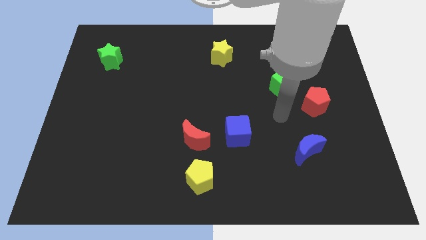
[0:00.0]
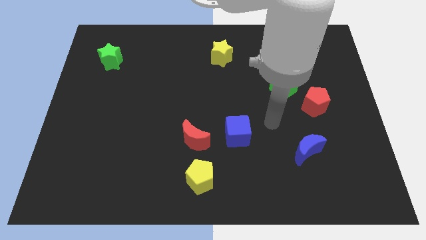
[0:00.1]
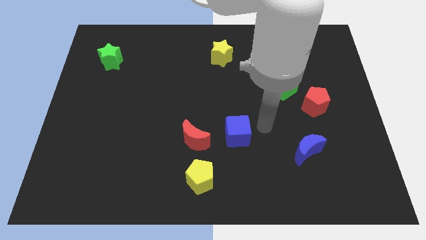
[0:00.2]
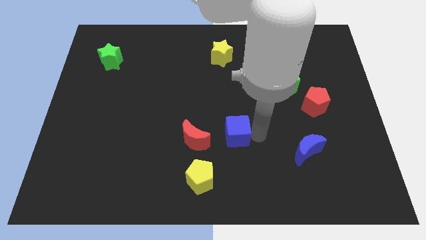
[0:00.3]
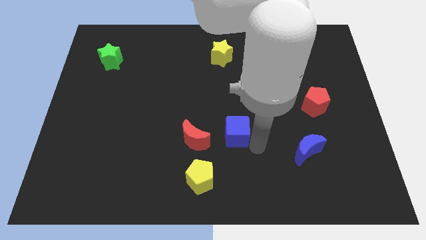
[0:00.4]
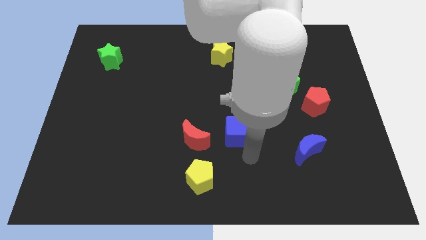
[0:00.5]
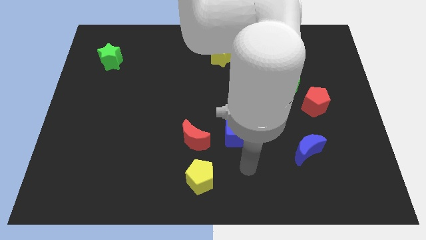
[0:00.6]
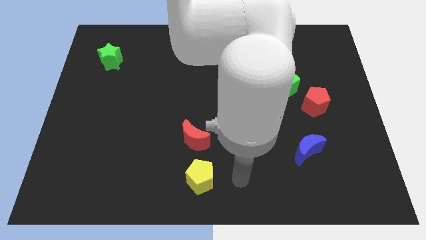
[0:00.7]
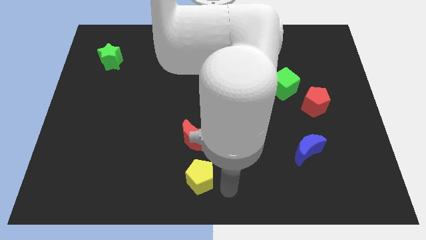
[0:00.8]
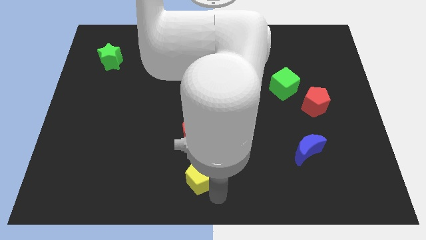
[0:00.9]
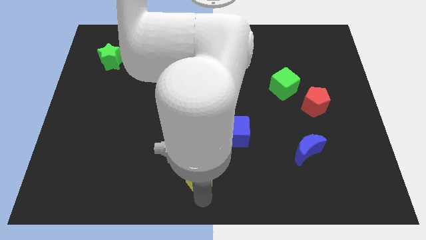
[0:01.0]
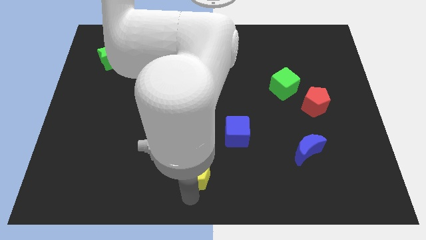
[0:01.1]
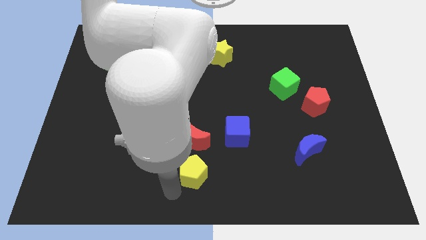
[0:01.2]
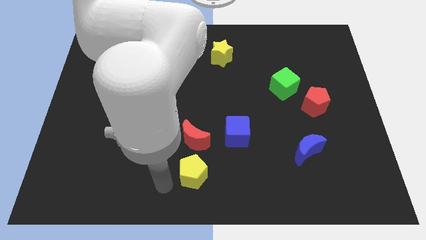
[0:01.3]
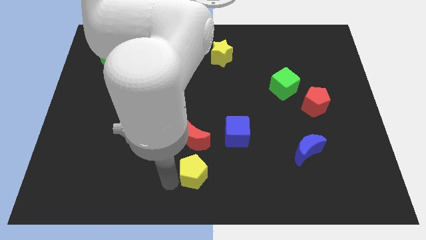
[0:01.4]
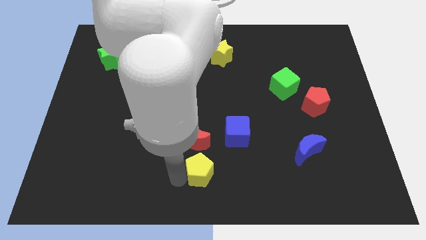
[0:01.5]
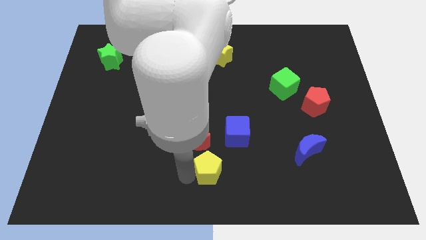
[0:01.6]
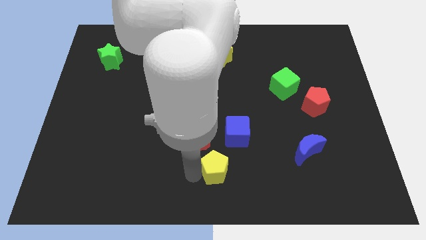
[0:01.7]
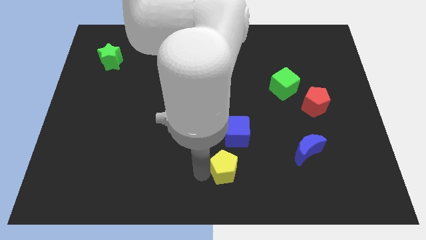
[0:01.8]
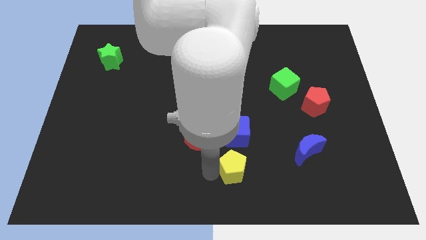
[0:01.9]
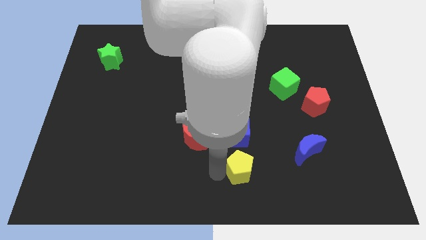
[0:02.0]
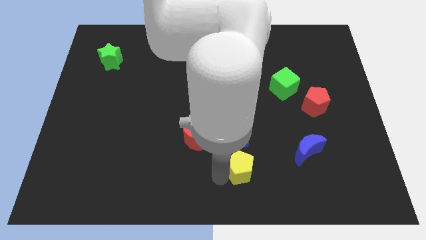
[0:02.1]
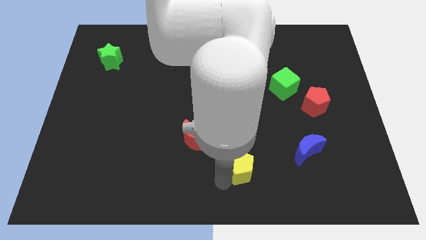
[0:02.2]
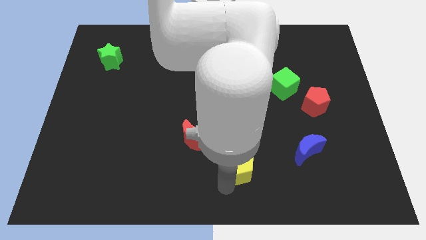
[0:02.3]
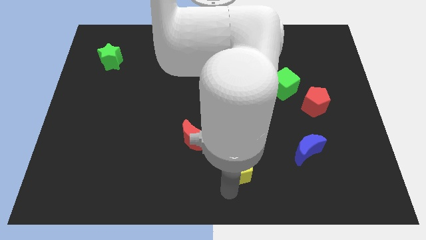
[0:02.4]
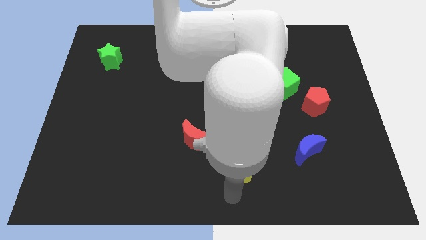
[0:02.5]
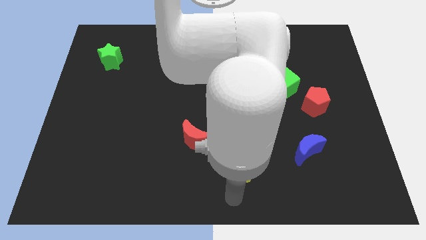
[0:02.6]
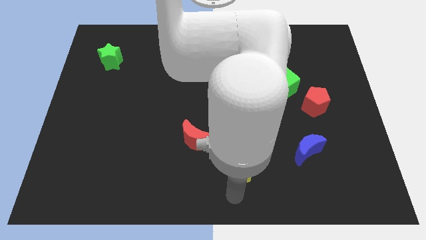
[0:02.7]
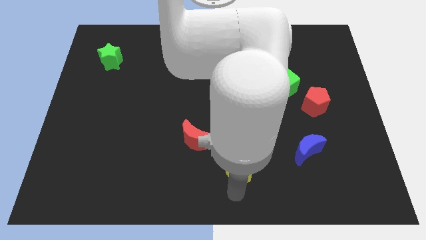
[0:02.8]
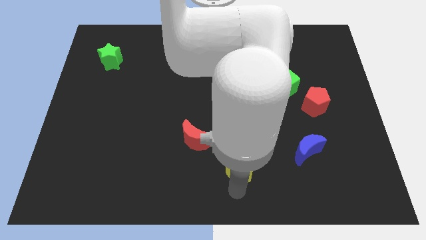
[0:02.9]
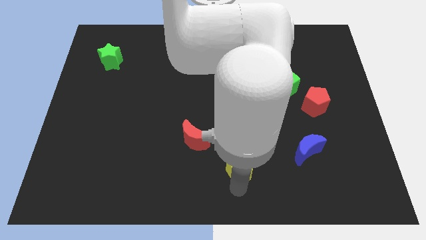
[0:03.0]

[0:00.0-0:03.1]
slide the yellow pentagon diagonally up and to the right a little

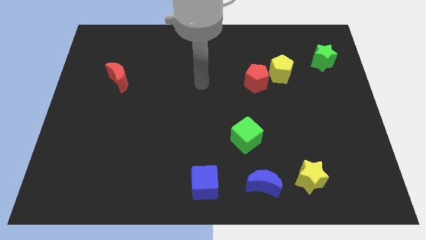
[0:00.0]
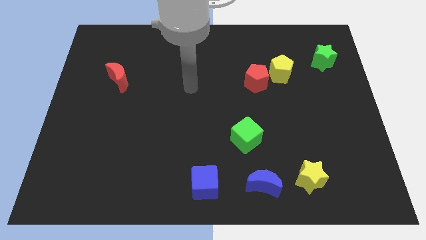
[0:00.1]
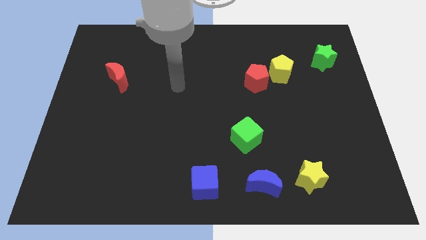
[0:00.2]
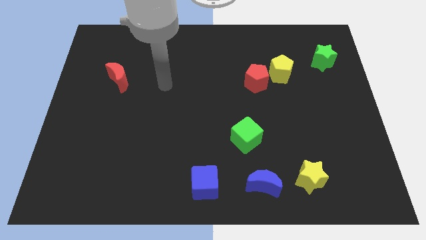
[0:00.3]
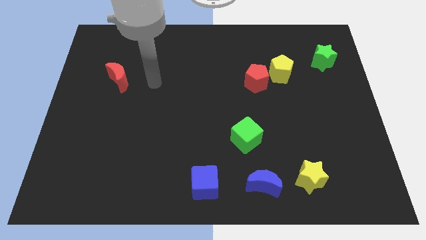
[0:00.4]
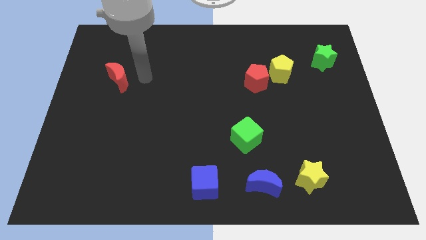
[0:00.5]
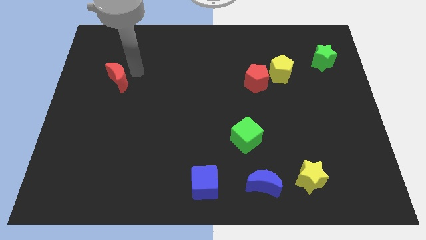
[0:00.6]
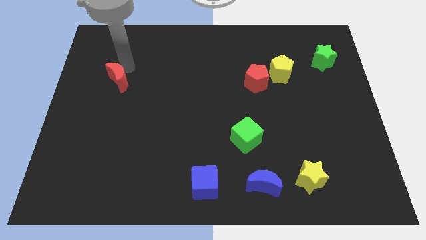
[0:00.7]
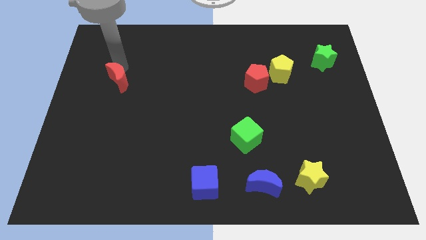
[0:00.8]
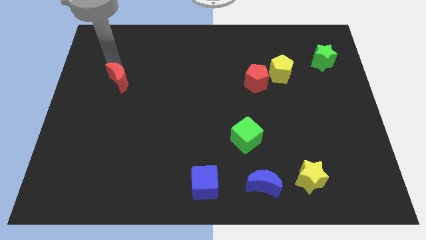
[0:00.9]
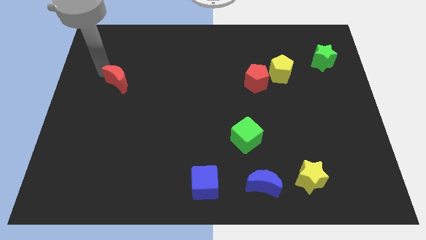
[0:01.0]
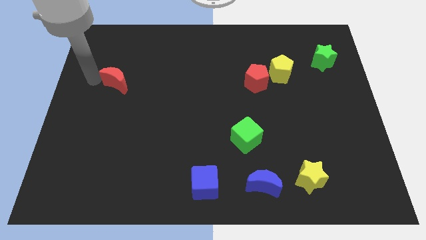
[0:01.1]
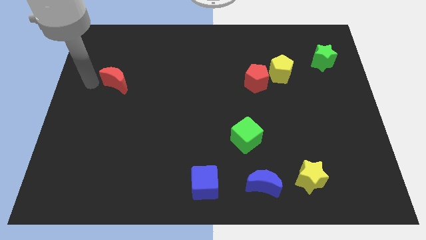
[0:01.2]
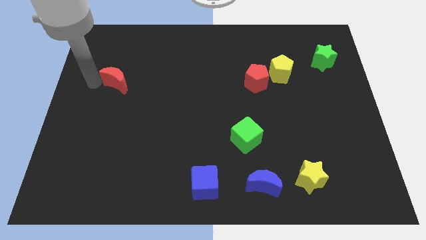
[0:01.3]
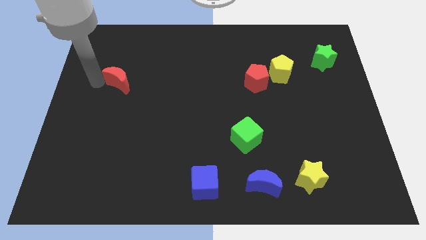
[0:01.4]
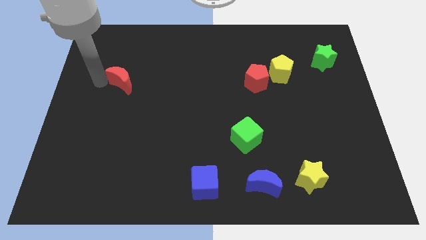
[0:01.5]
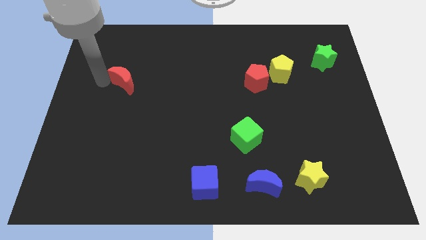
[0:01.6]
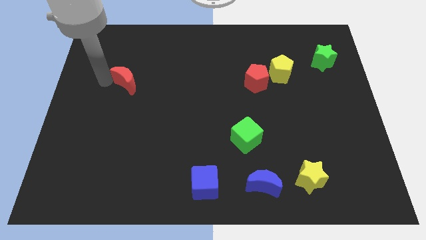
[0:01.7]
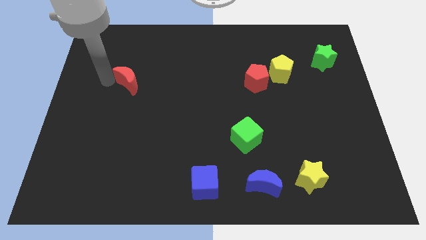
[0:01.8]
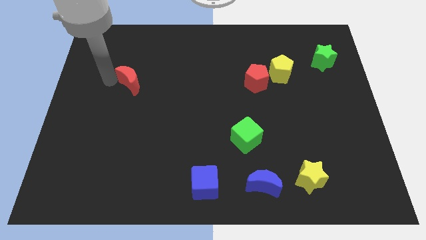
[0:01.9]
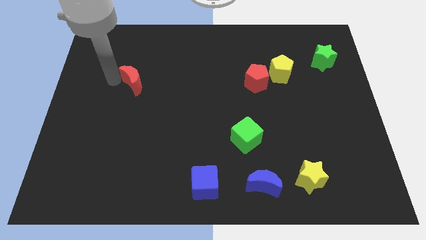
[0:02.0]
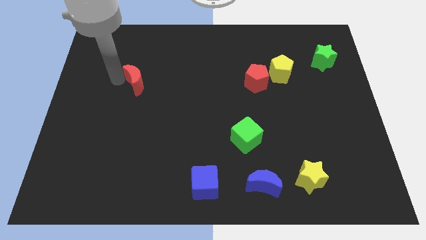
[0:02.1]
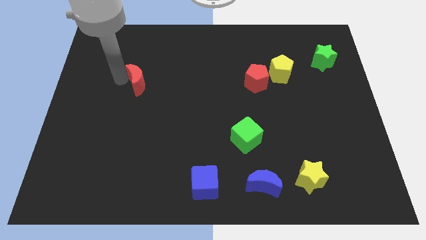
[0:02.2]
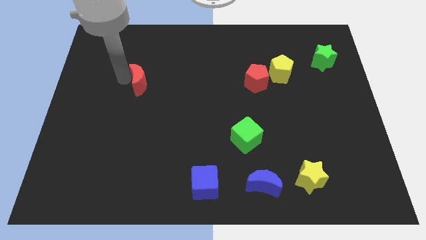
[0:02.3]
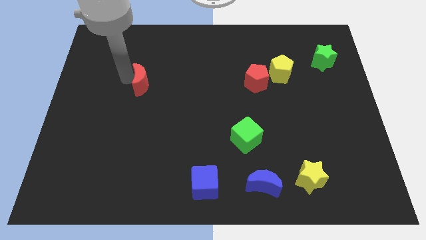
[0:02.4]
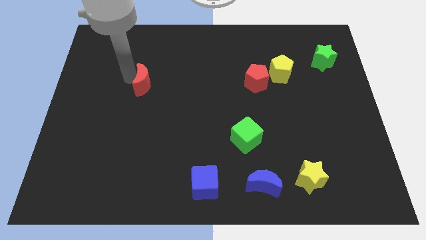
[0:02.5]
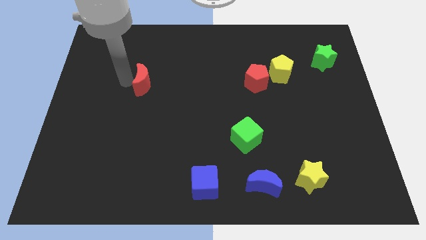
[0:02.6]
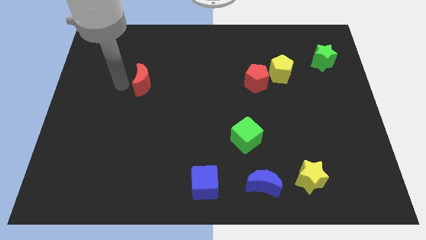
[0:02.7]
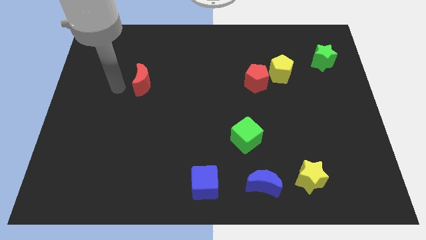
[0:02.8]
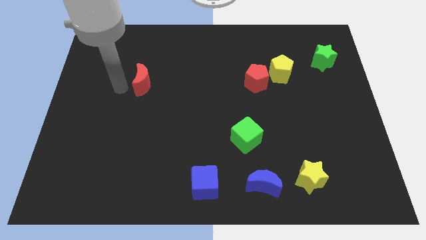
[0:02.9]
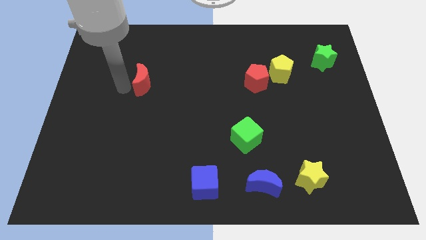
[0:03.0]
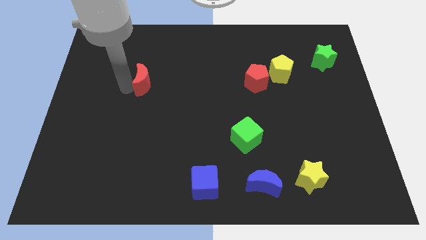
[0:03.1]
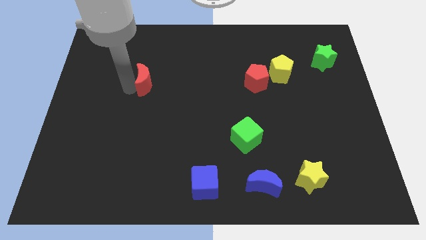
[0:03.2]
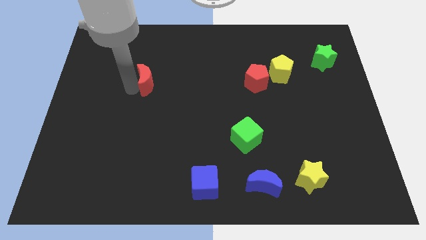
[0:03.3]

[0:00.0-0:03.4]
slide the red moon somewhat to the right

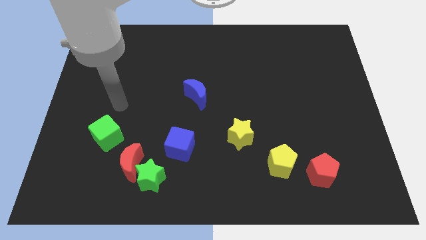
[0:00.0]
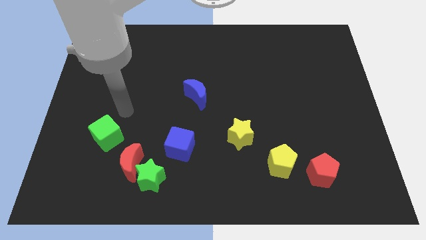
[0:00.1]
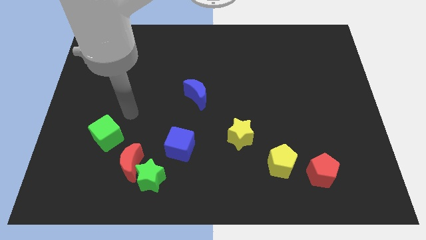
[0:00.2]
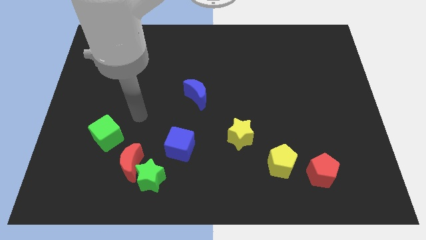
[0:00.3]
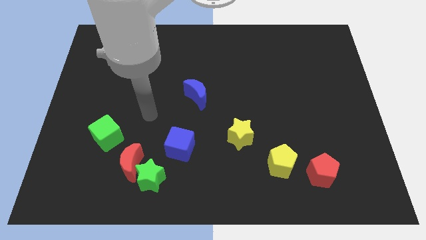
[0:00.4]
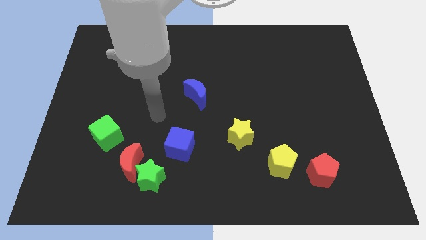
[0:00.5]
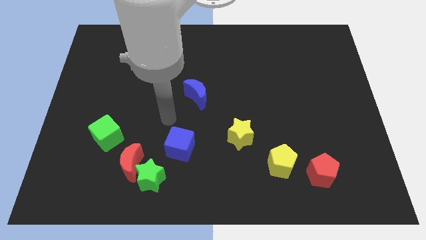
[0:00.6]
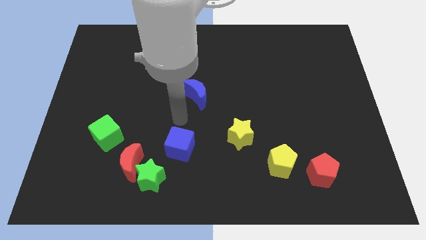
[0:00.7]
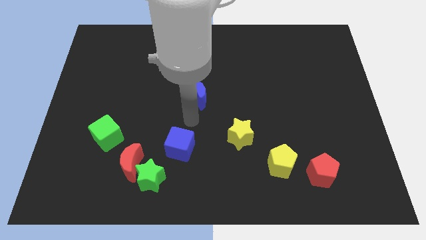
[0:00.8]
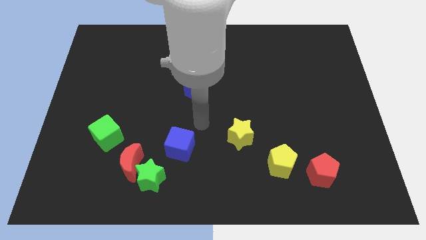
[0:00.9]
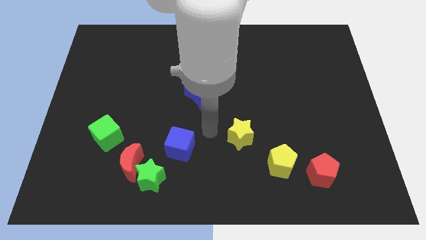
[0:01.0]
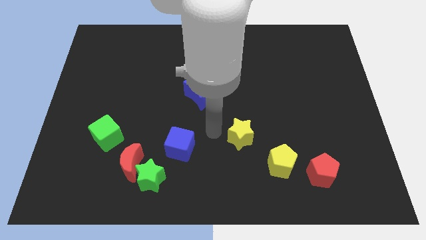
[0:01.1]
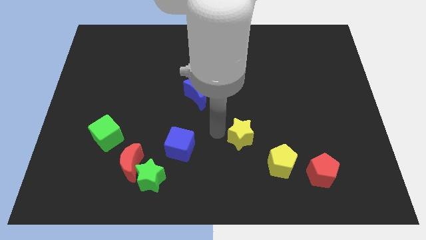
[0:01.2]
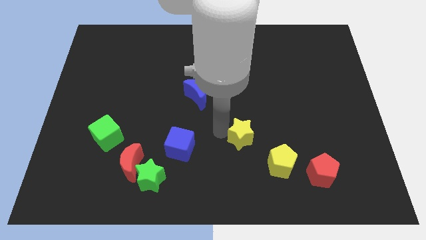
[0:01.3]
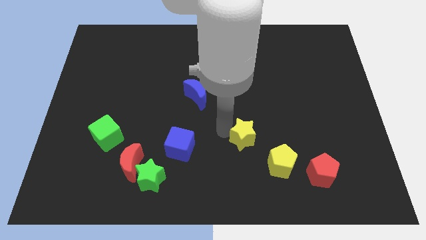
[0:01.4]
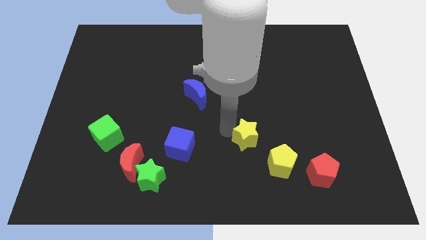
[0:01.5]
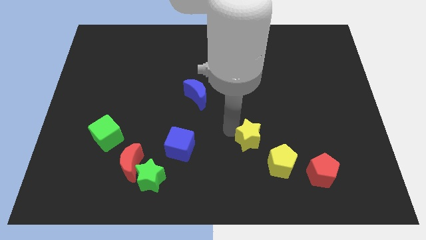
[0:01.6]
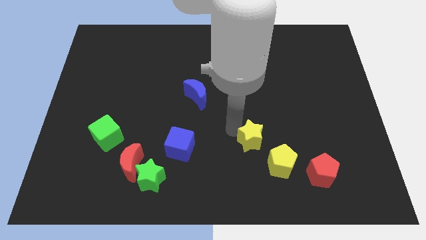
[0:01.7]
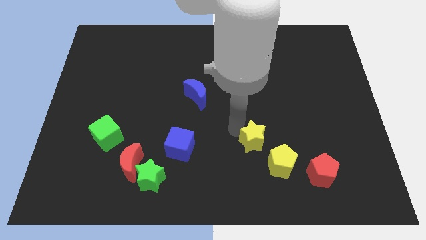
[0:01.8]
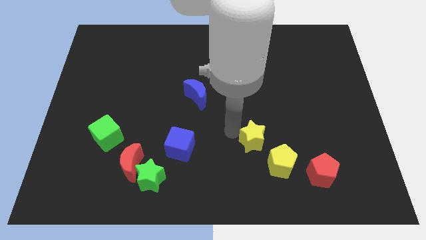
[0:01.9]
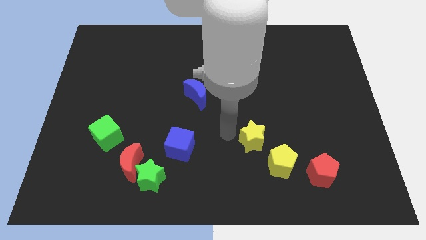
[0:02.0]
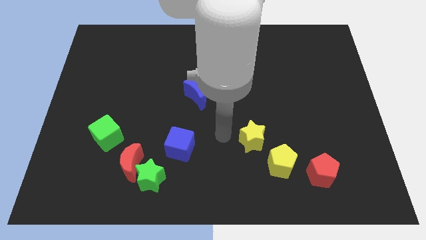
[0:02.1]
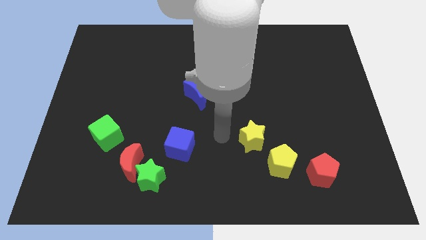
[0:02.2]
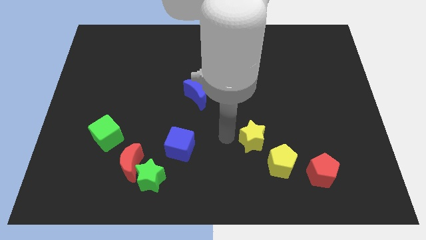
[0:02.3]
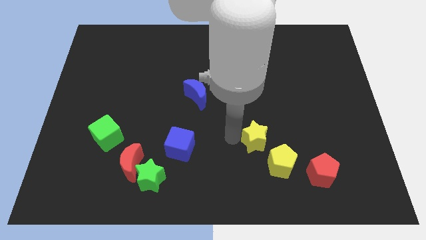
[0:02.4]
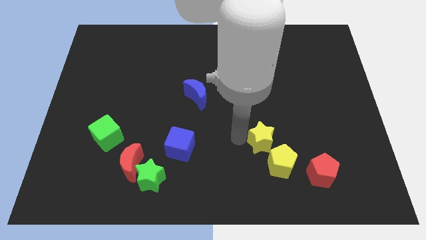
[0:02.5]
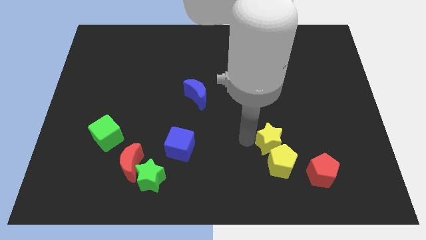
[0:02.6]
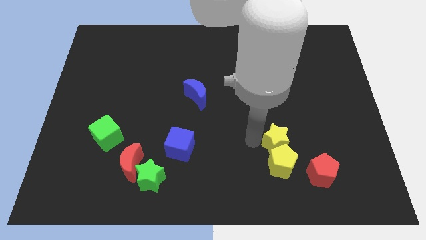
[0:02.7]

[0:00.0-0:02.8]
slightly move the yellow star right
